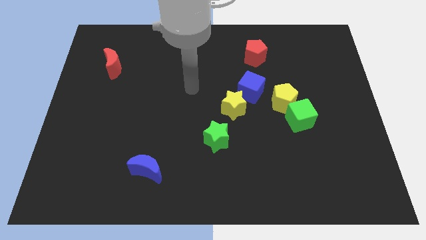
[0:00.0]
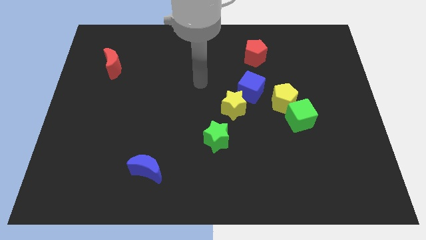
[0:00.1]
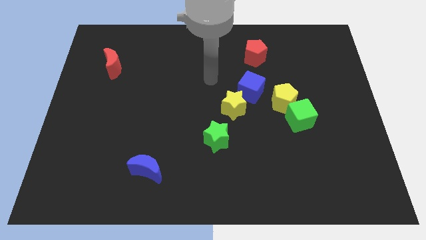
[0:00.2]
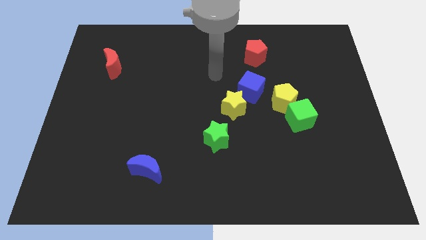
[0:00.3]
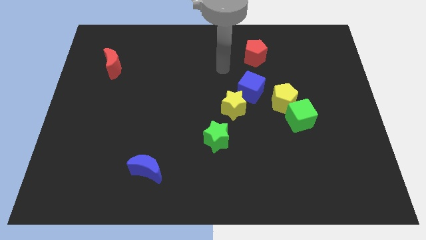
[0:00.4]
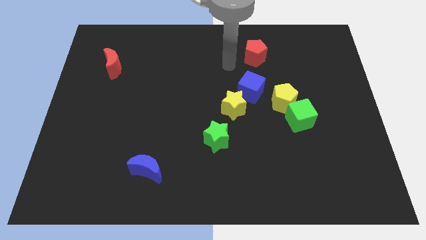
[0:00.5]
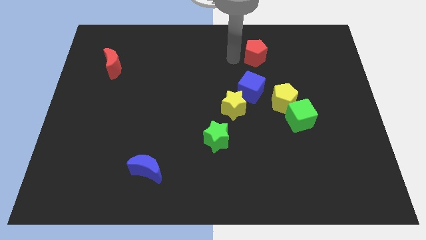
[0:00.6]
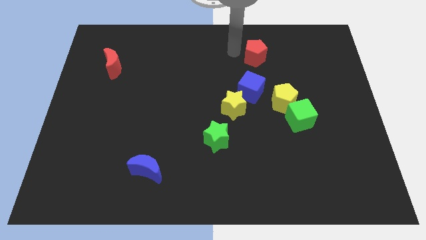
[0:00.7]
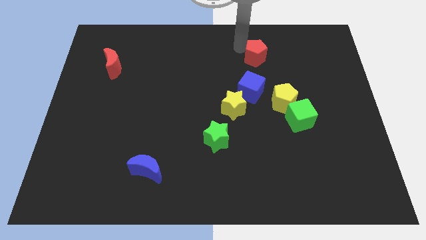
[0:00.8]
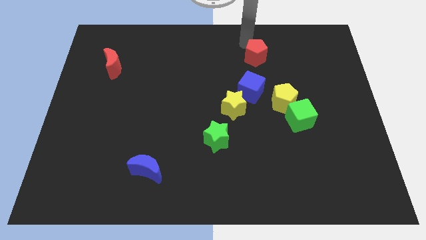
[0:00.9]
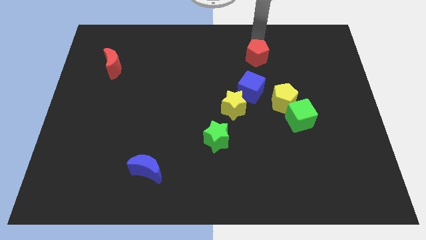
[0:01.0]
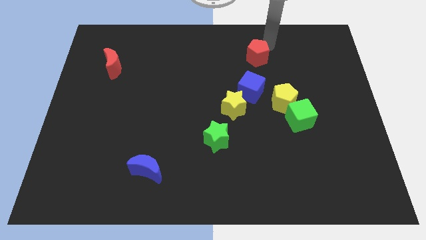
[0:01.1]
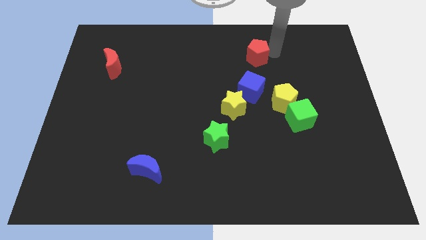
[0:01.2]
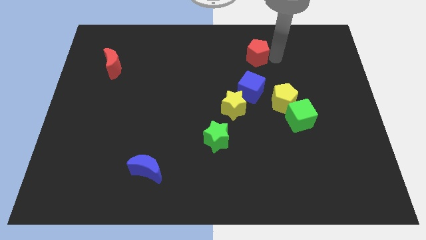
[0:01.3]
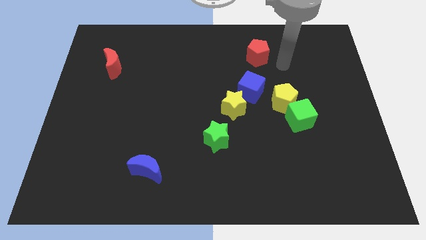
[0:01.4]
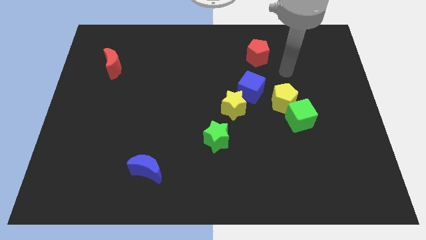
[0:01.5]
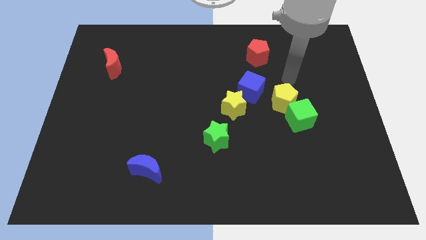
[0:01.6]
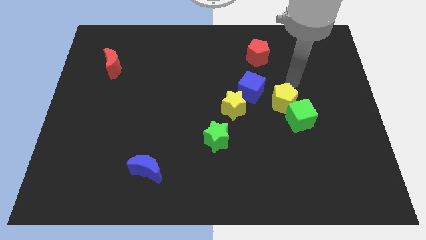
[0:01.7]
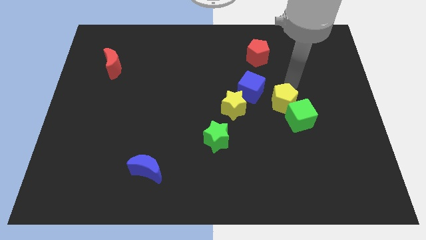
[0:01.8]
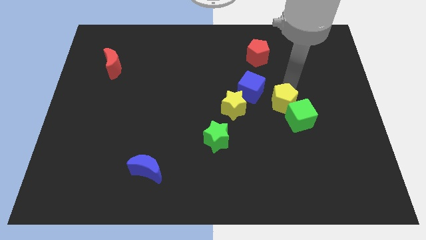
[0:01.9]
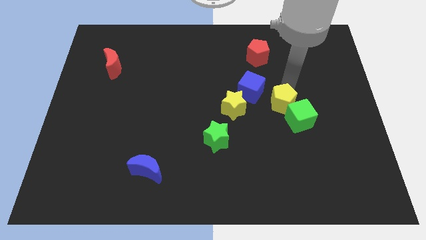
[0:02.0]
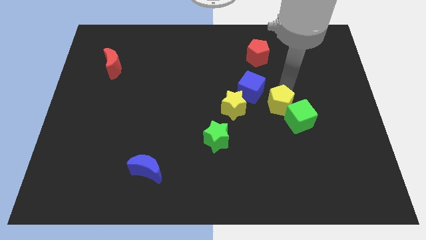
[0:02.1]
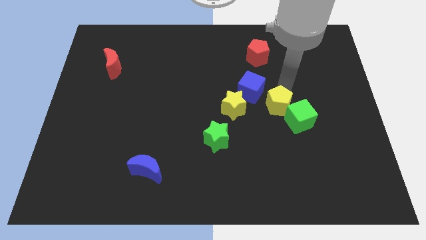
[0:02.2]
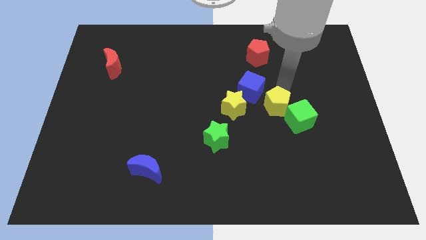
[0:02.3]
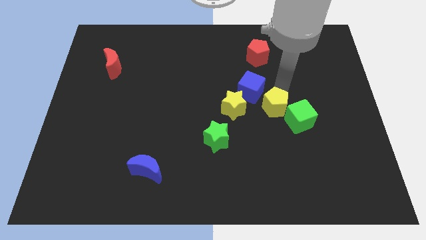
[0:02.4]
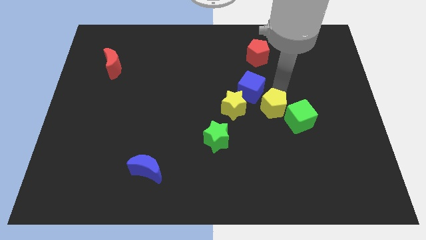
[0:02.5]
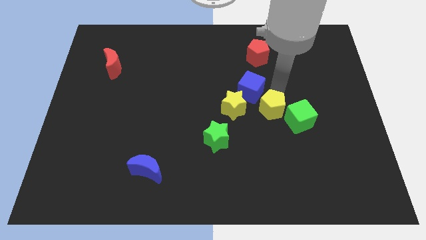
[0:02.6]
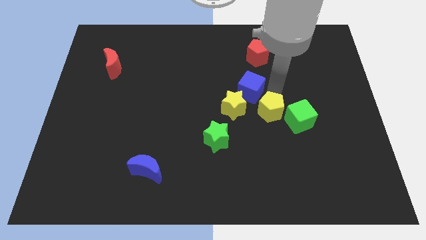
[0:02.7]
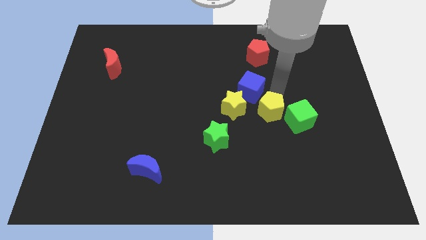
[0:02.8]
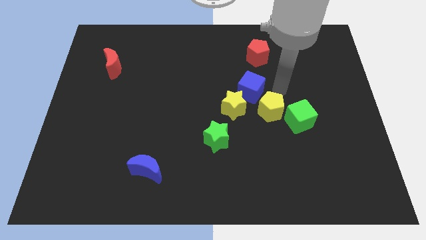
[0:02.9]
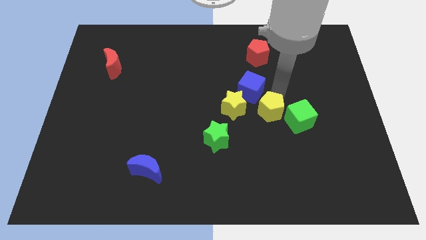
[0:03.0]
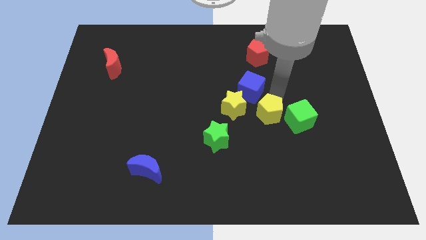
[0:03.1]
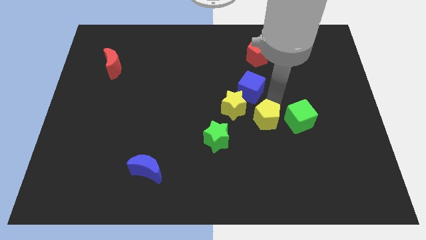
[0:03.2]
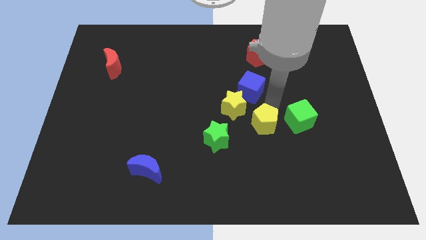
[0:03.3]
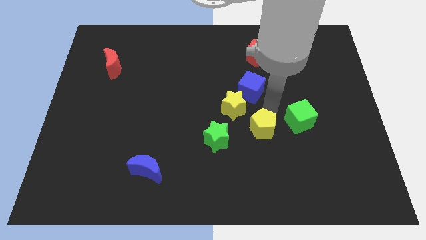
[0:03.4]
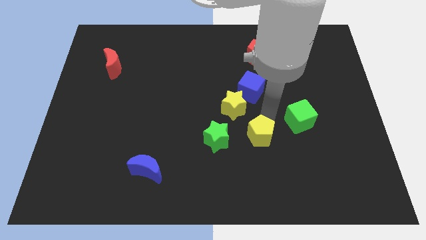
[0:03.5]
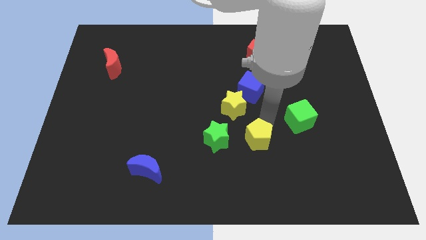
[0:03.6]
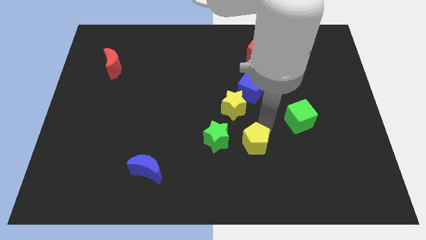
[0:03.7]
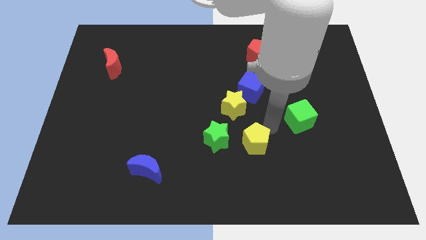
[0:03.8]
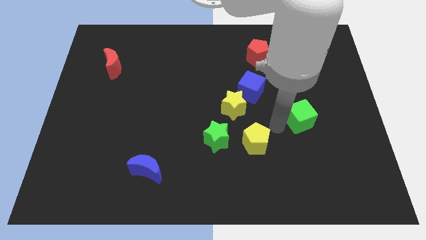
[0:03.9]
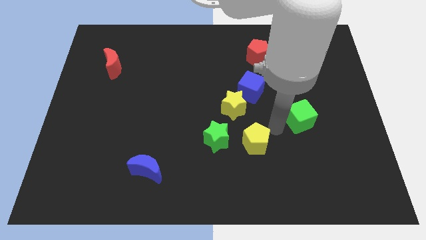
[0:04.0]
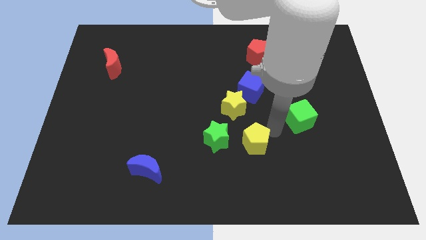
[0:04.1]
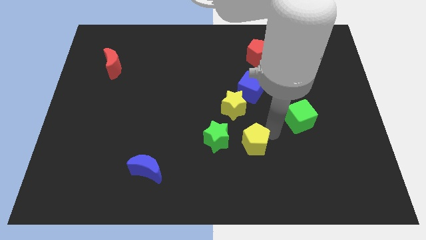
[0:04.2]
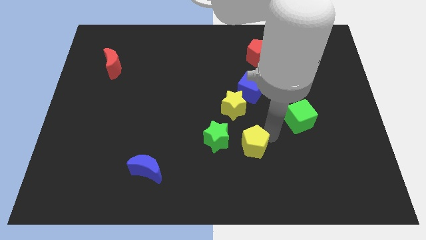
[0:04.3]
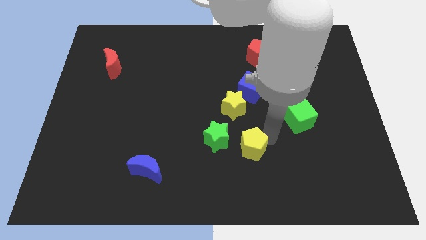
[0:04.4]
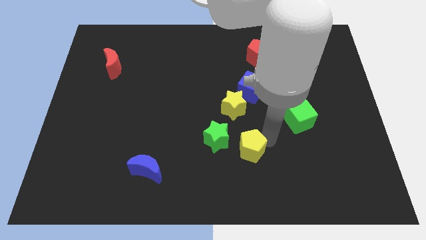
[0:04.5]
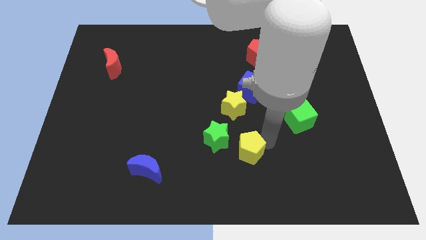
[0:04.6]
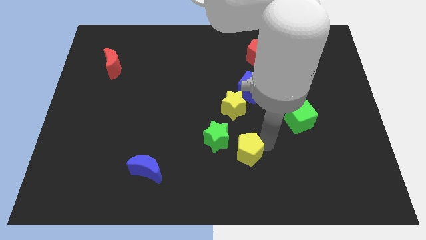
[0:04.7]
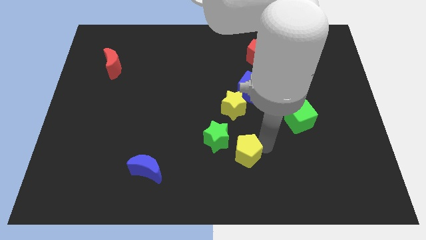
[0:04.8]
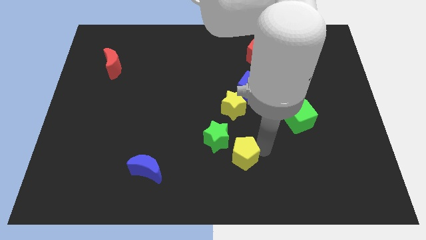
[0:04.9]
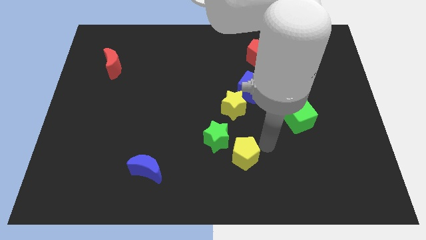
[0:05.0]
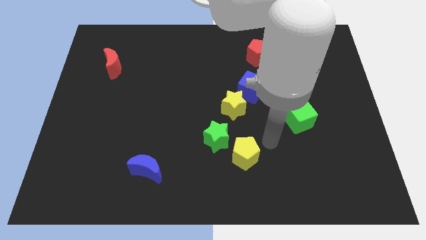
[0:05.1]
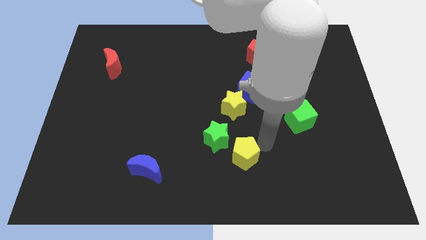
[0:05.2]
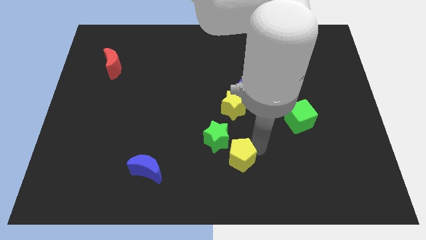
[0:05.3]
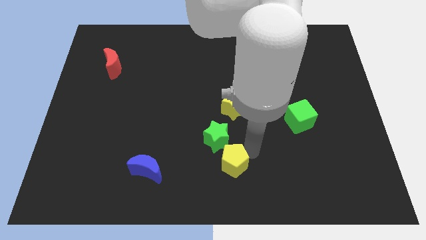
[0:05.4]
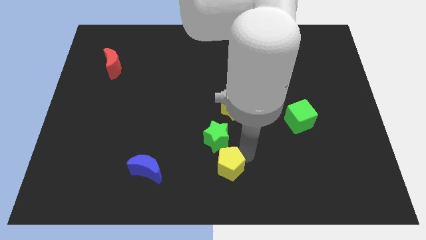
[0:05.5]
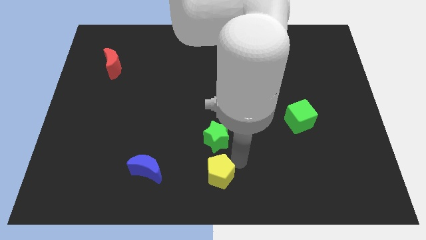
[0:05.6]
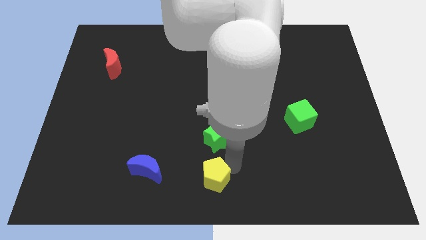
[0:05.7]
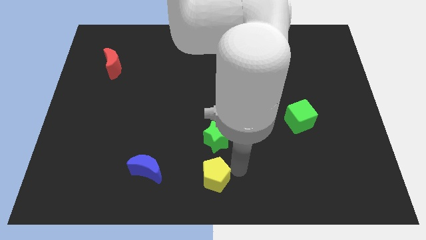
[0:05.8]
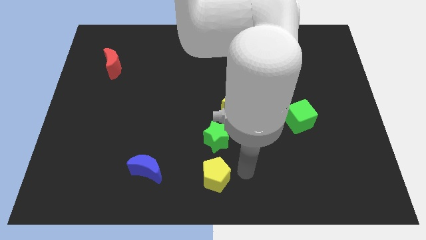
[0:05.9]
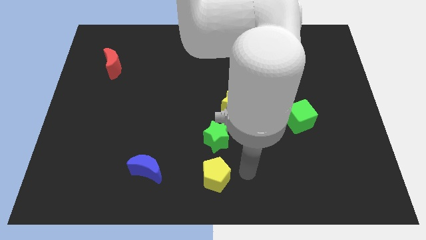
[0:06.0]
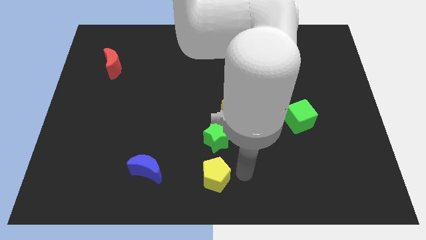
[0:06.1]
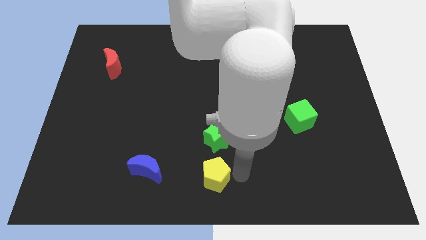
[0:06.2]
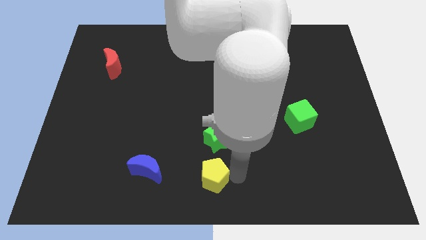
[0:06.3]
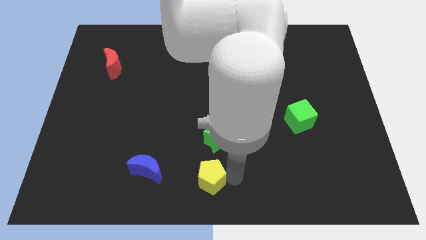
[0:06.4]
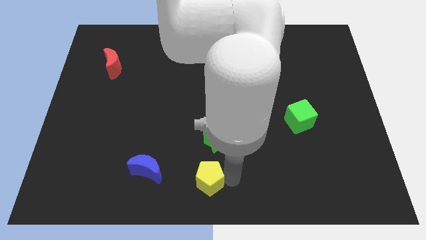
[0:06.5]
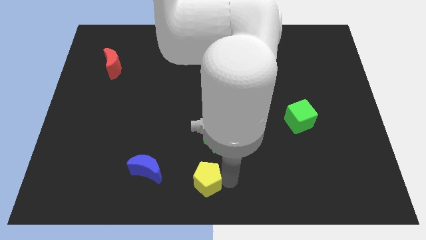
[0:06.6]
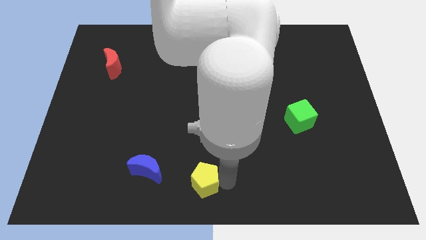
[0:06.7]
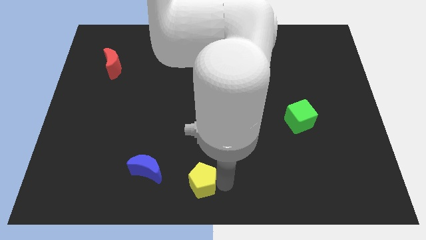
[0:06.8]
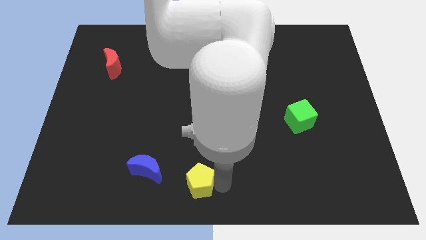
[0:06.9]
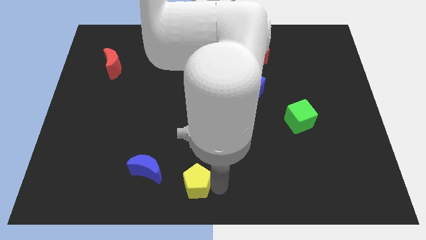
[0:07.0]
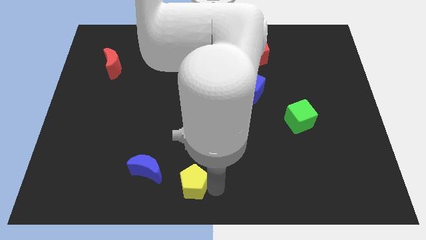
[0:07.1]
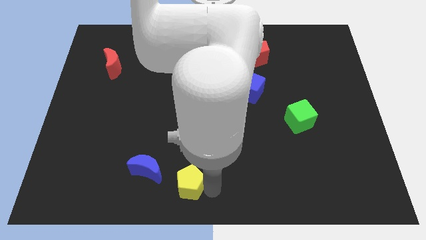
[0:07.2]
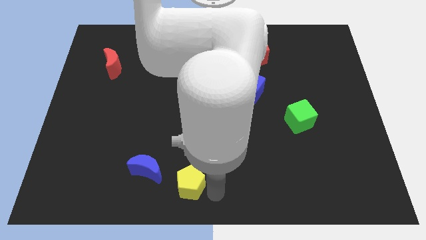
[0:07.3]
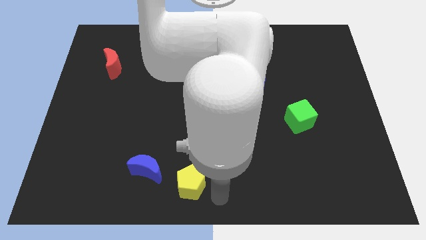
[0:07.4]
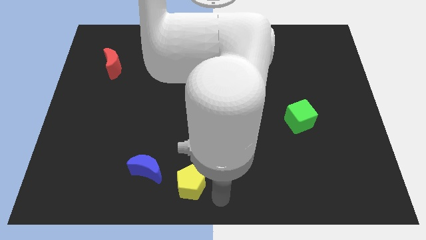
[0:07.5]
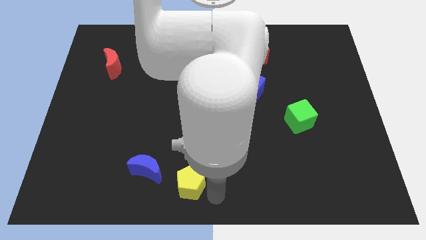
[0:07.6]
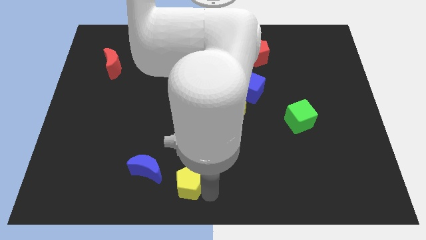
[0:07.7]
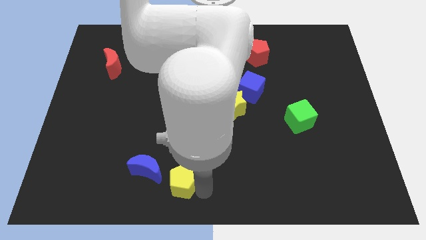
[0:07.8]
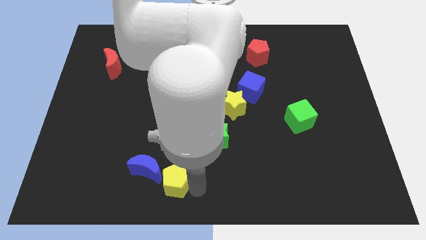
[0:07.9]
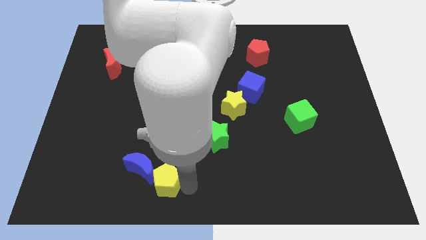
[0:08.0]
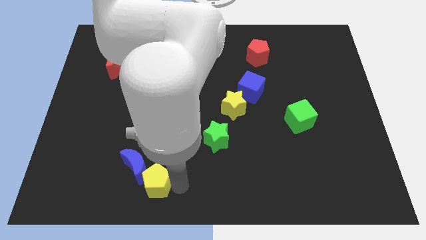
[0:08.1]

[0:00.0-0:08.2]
push the yellow pentagon close to the blue moon
